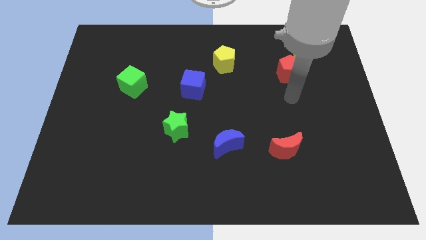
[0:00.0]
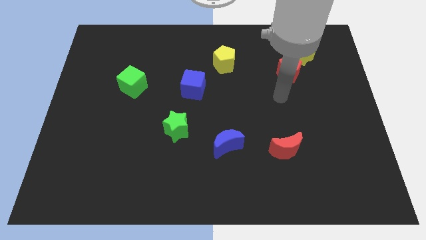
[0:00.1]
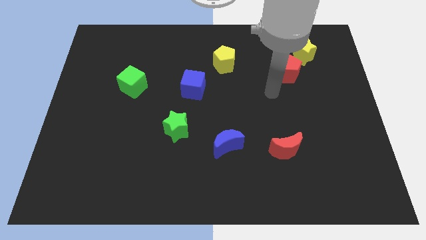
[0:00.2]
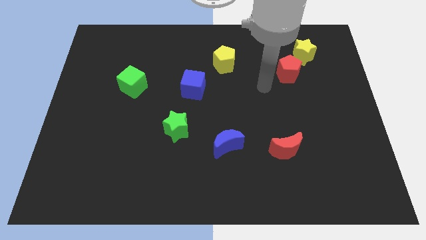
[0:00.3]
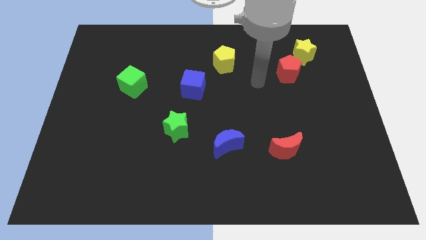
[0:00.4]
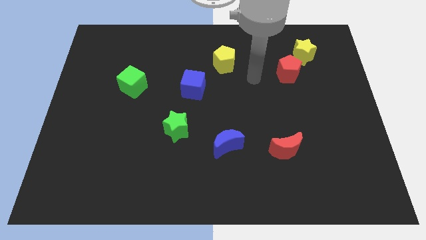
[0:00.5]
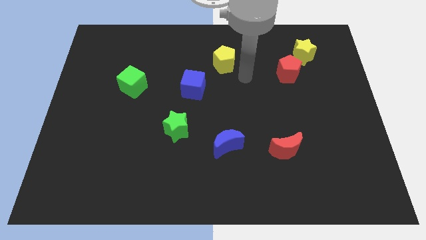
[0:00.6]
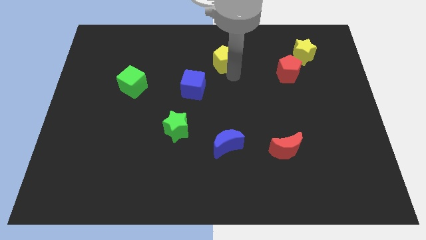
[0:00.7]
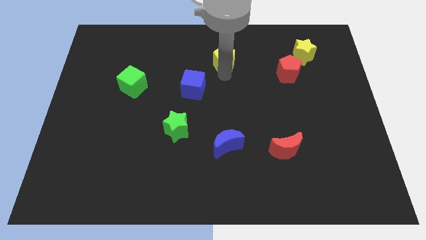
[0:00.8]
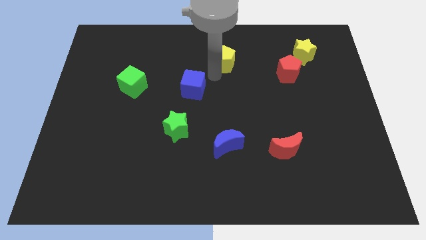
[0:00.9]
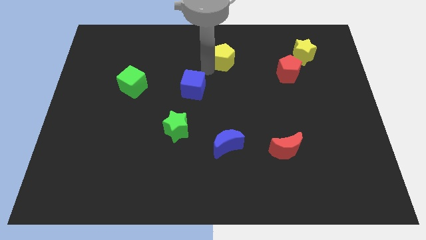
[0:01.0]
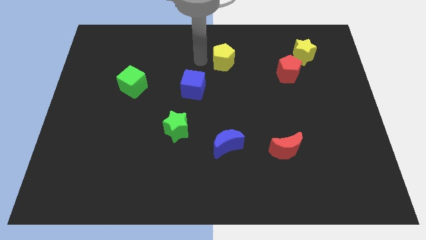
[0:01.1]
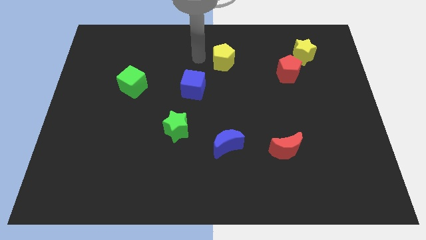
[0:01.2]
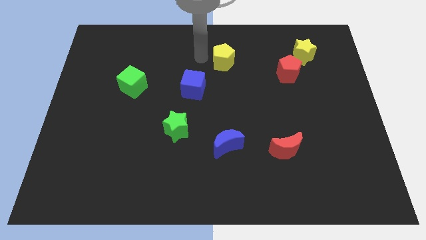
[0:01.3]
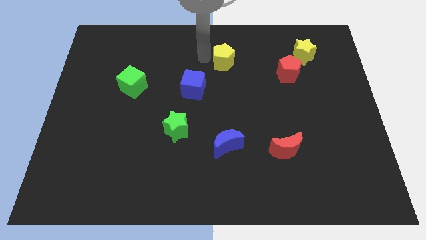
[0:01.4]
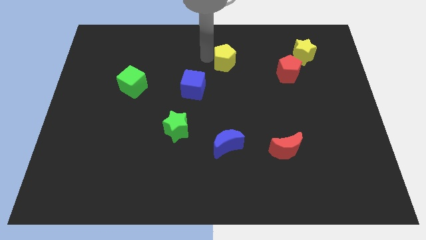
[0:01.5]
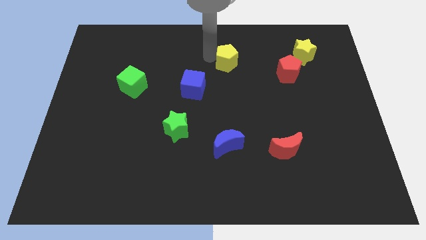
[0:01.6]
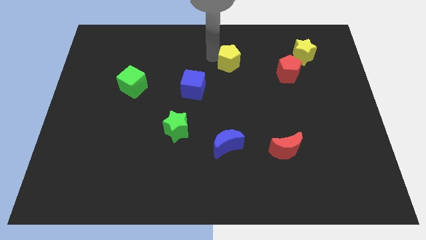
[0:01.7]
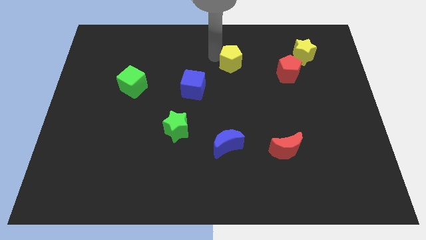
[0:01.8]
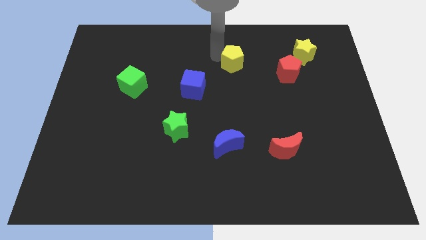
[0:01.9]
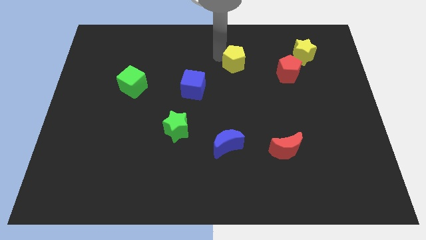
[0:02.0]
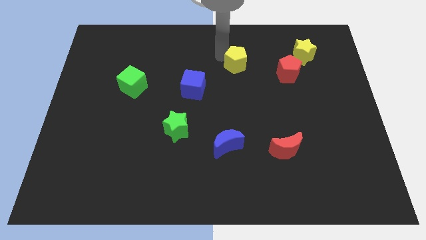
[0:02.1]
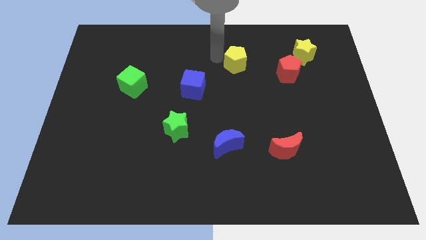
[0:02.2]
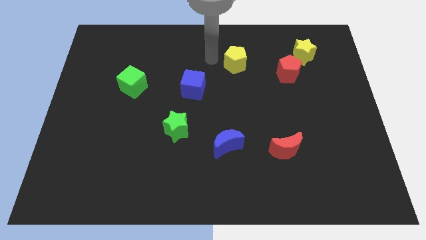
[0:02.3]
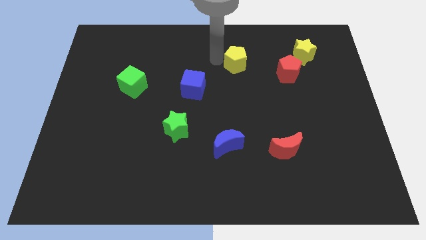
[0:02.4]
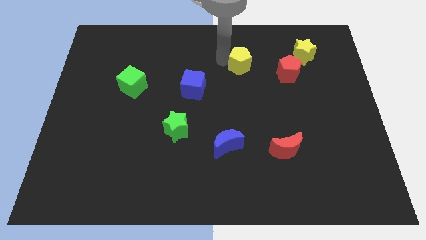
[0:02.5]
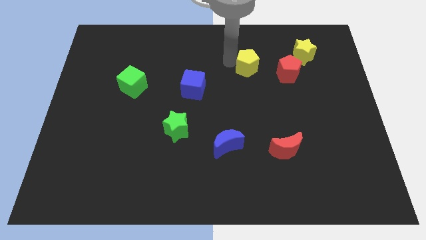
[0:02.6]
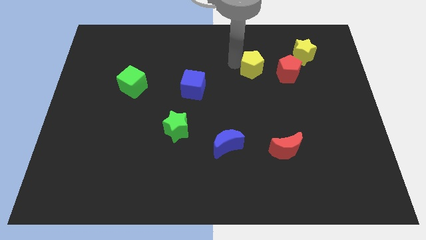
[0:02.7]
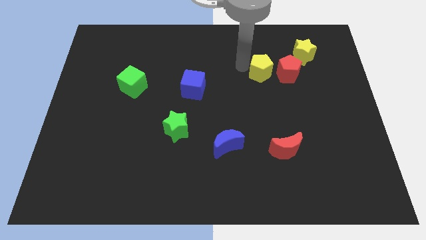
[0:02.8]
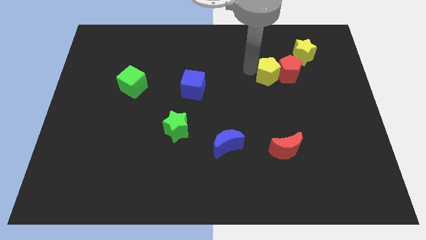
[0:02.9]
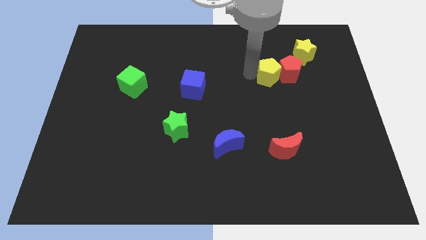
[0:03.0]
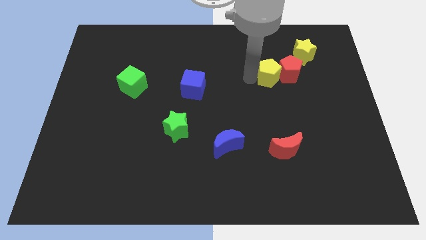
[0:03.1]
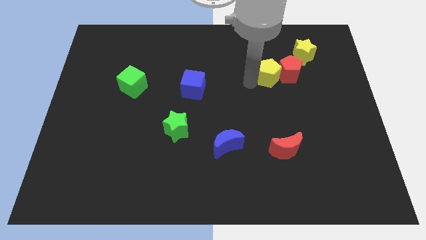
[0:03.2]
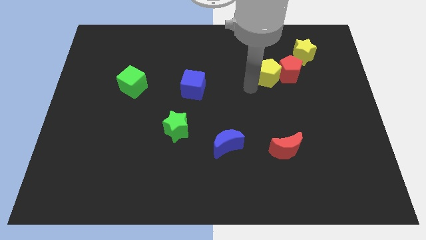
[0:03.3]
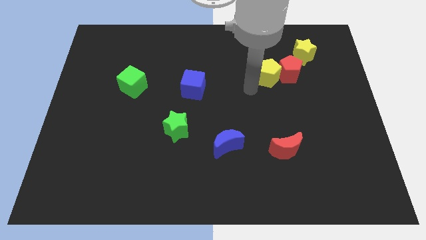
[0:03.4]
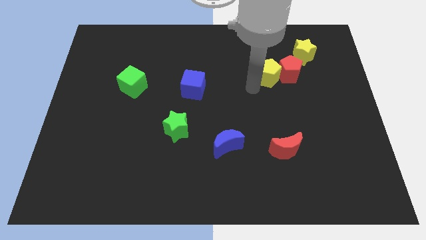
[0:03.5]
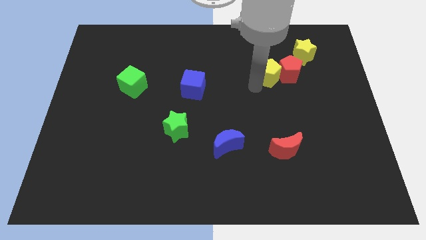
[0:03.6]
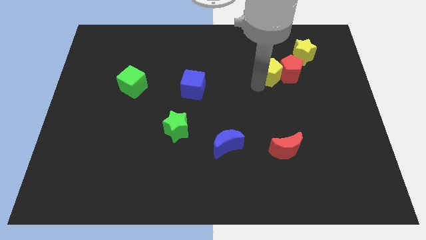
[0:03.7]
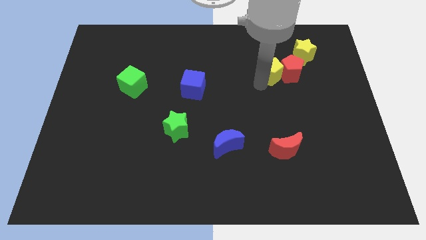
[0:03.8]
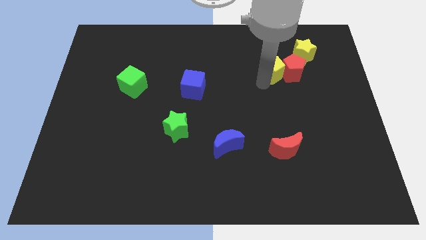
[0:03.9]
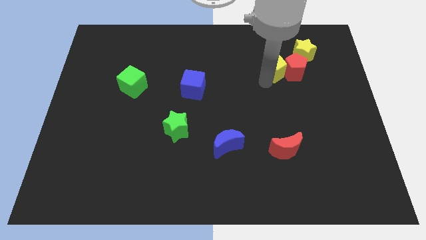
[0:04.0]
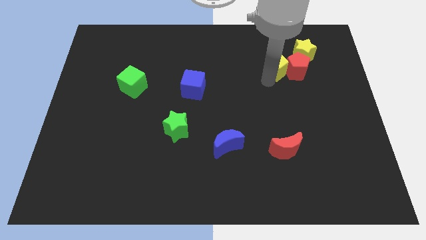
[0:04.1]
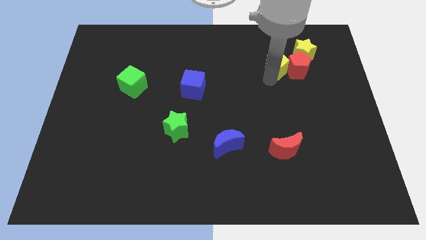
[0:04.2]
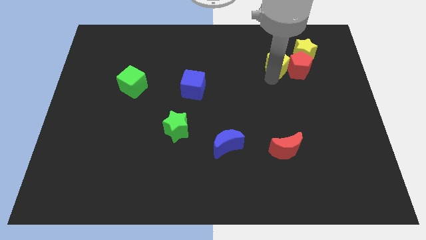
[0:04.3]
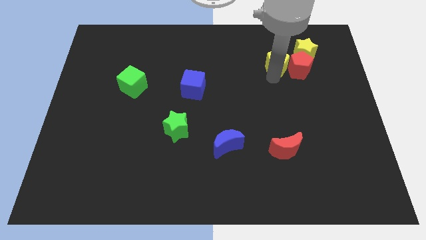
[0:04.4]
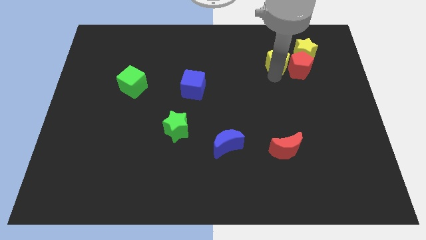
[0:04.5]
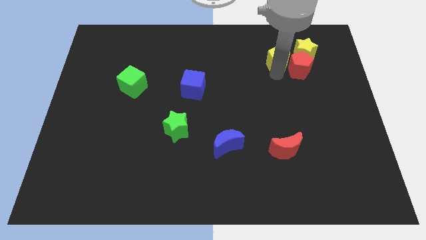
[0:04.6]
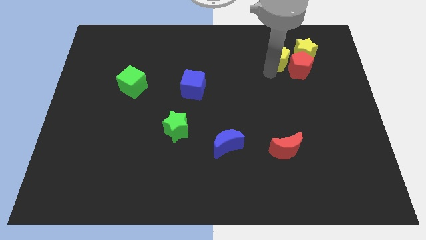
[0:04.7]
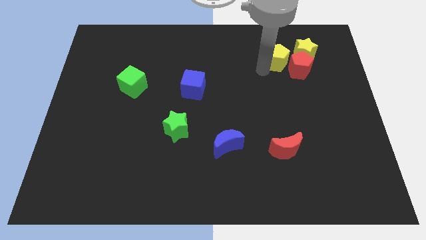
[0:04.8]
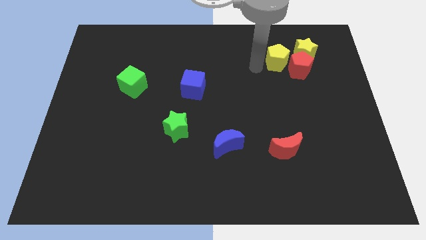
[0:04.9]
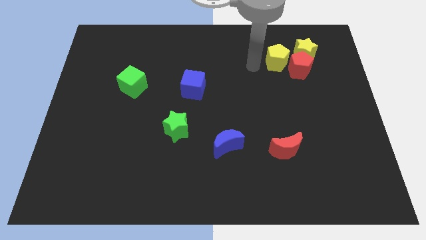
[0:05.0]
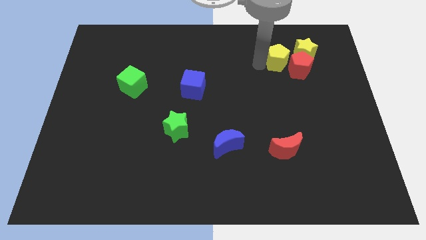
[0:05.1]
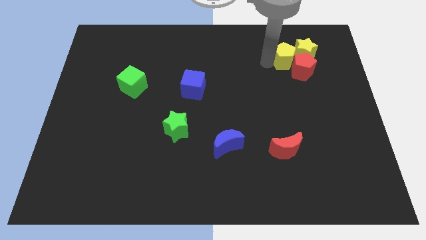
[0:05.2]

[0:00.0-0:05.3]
slide the yellow pentagon towards the yellow star

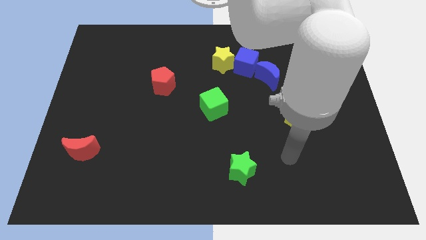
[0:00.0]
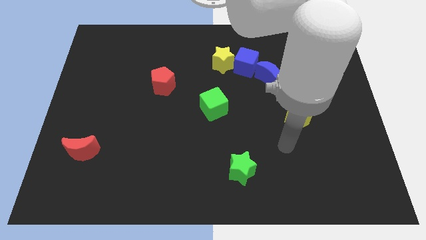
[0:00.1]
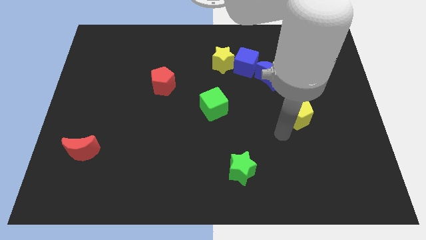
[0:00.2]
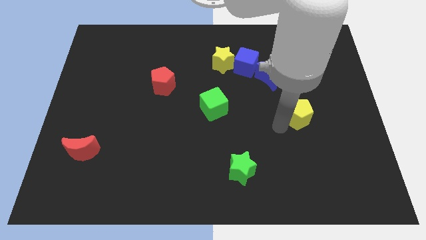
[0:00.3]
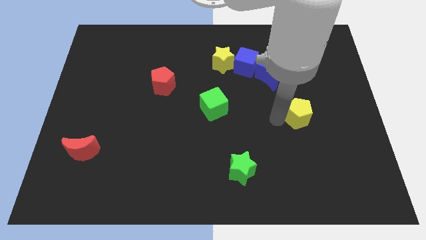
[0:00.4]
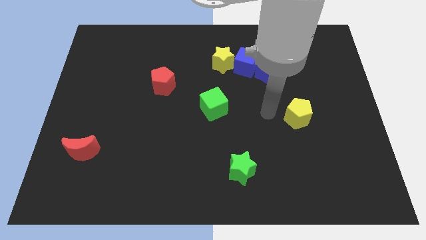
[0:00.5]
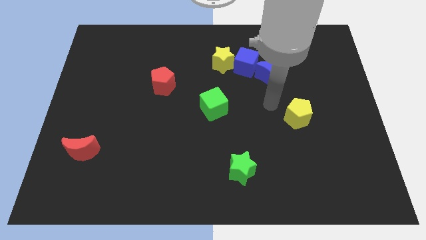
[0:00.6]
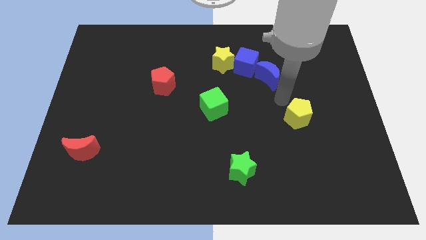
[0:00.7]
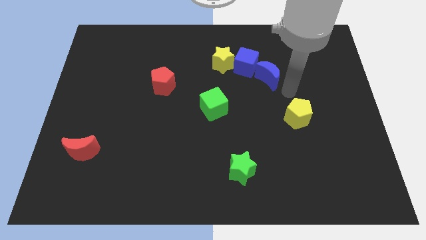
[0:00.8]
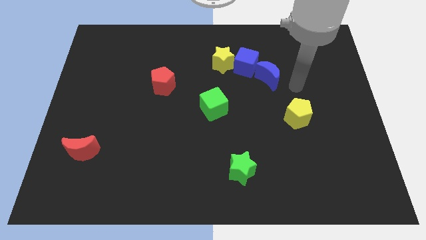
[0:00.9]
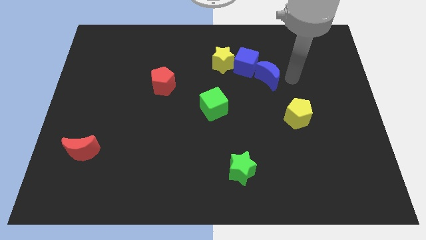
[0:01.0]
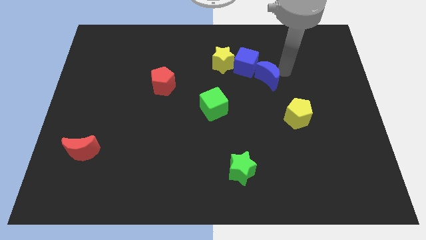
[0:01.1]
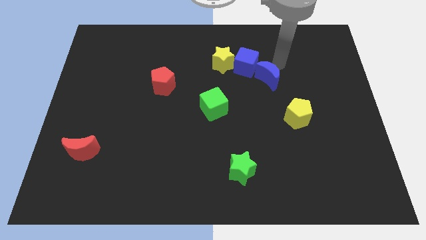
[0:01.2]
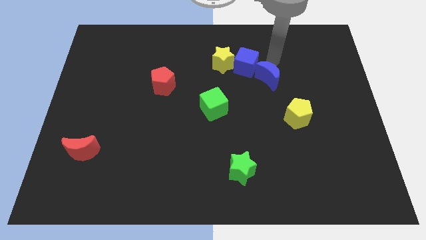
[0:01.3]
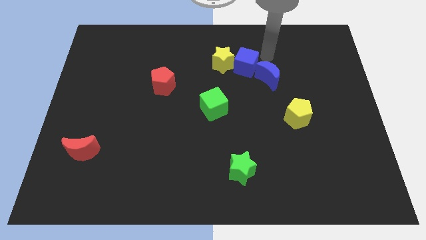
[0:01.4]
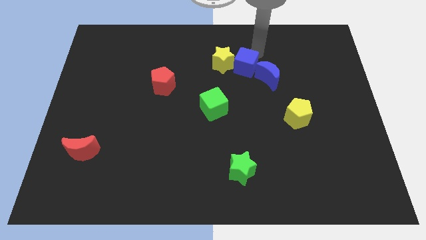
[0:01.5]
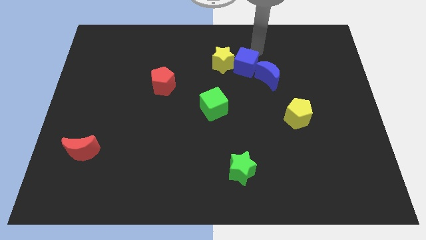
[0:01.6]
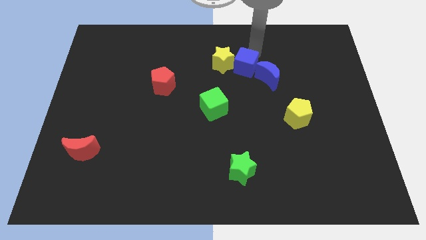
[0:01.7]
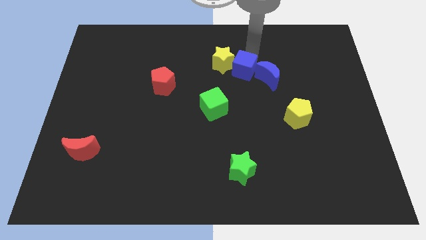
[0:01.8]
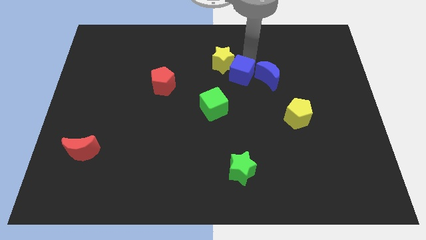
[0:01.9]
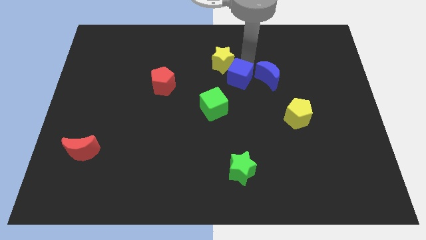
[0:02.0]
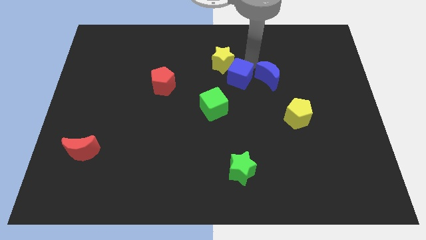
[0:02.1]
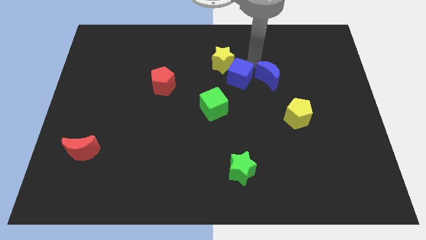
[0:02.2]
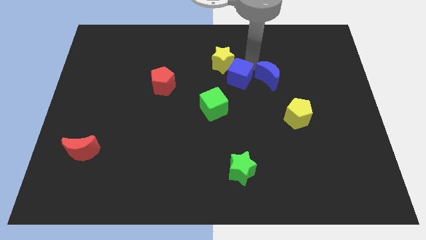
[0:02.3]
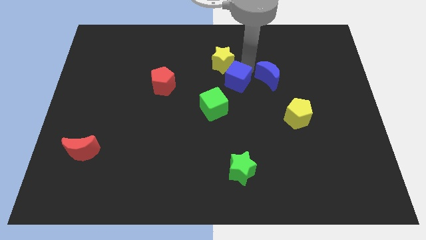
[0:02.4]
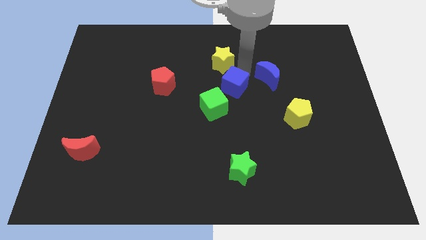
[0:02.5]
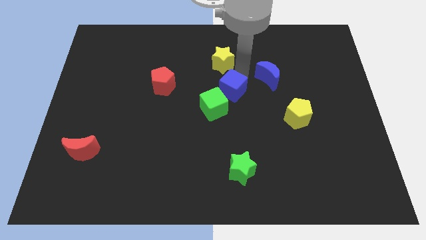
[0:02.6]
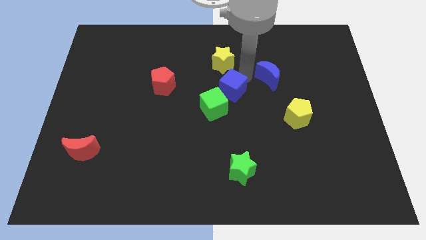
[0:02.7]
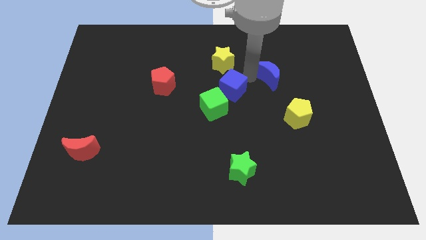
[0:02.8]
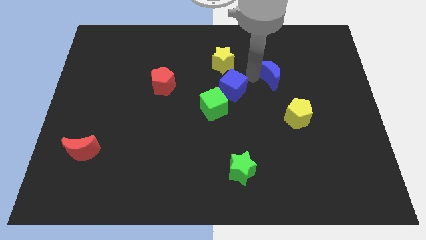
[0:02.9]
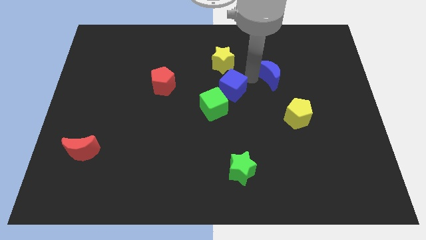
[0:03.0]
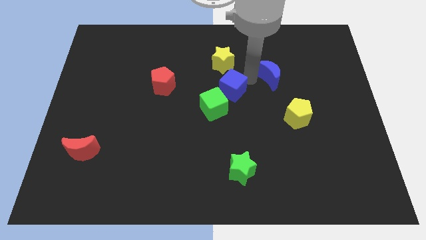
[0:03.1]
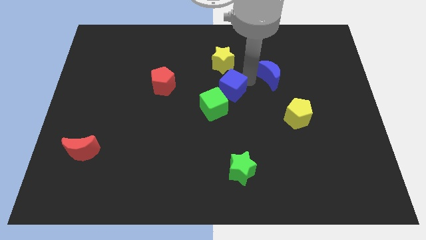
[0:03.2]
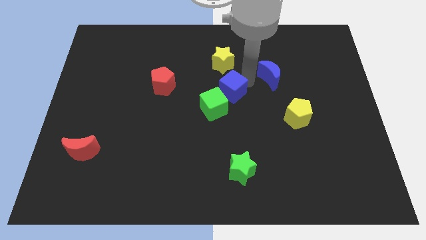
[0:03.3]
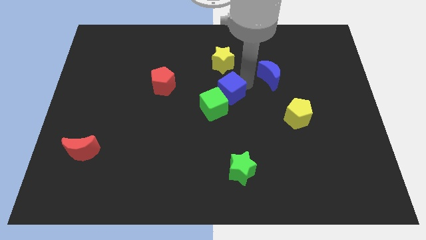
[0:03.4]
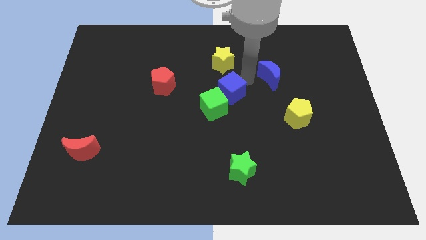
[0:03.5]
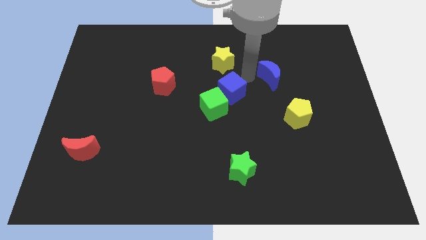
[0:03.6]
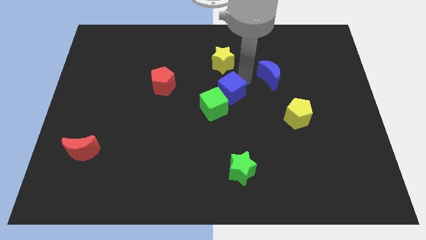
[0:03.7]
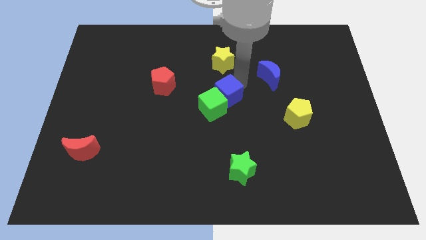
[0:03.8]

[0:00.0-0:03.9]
move the blue cube close to the green cube
